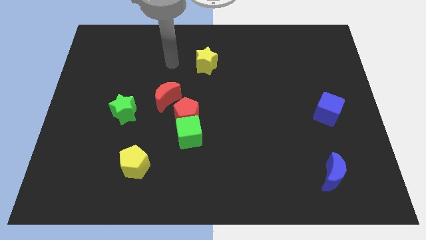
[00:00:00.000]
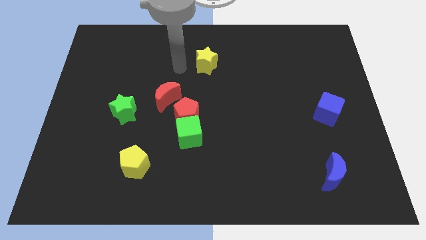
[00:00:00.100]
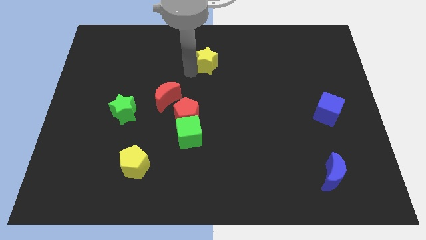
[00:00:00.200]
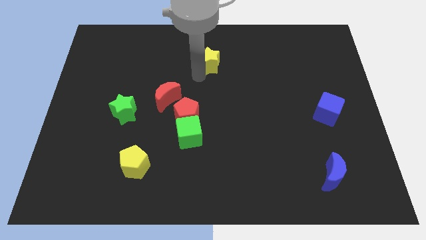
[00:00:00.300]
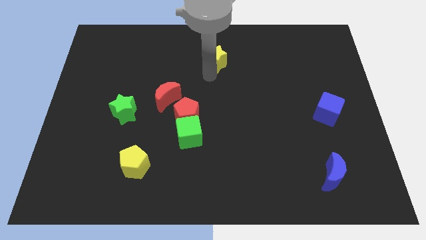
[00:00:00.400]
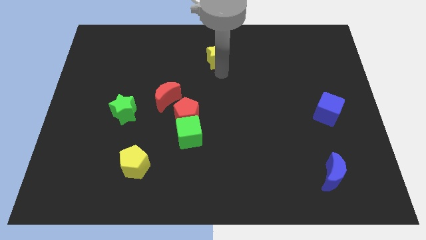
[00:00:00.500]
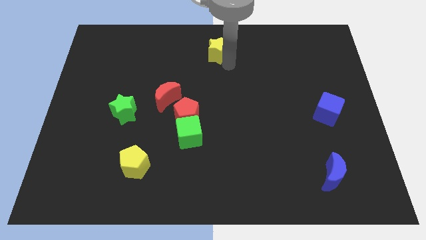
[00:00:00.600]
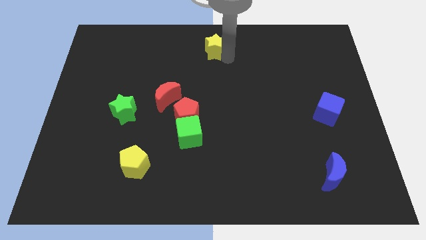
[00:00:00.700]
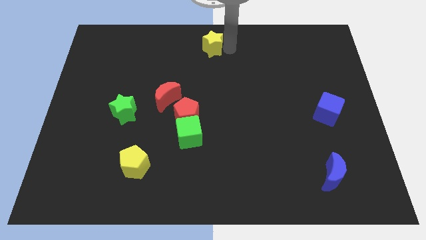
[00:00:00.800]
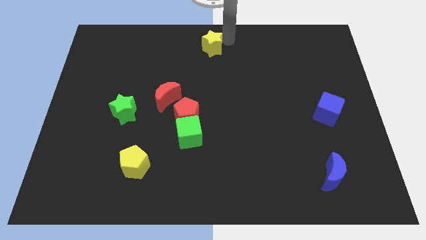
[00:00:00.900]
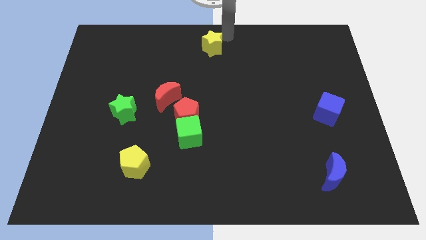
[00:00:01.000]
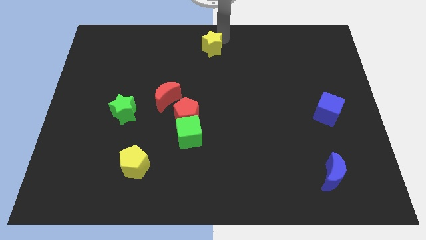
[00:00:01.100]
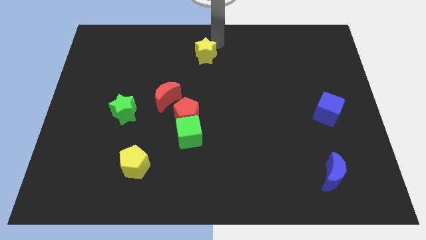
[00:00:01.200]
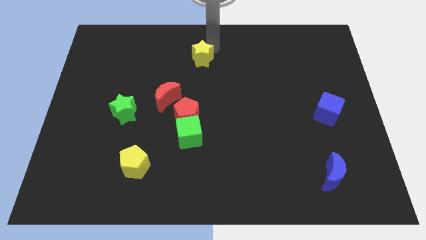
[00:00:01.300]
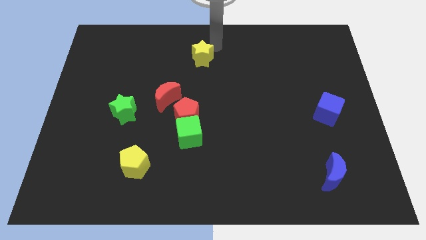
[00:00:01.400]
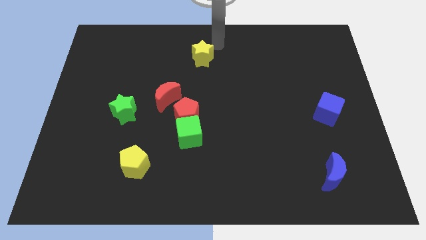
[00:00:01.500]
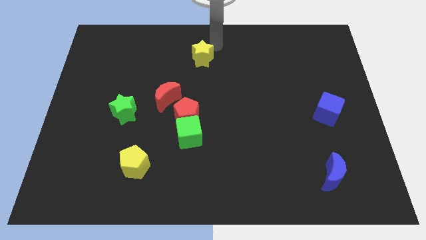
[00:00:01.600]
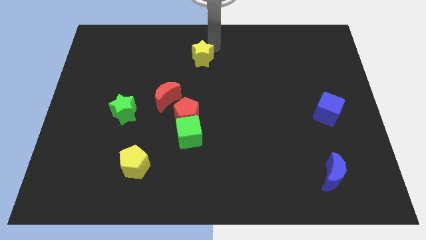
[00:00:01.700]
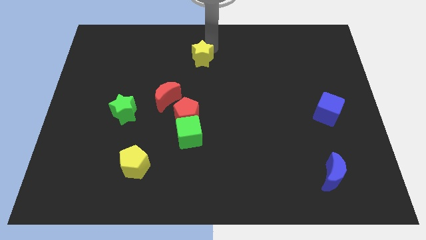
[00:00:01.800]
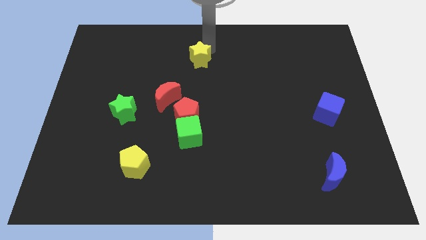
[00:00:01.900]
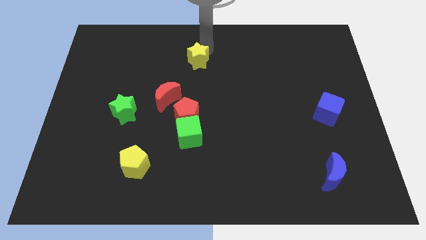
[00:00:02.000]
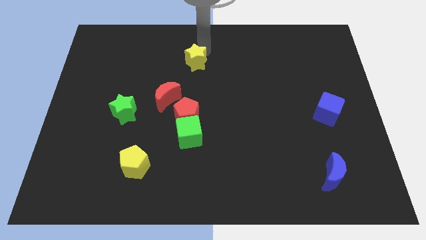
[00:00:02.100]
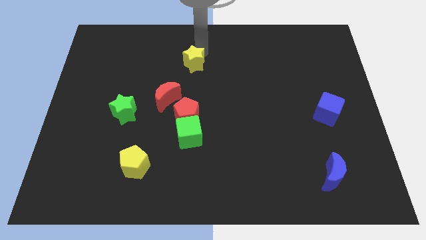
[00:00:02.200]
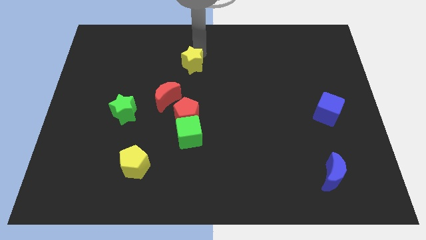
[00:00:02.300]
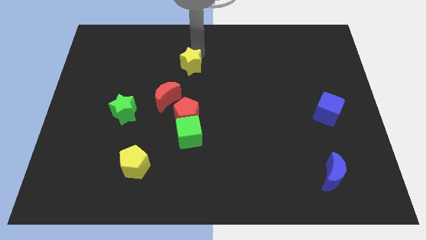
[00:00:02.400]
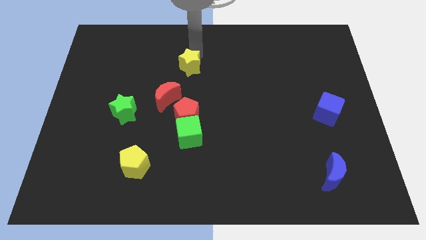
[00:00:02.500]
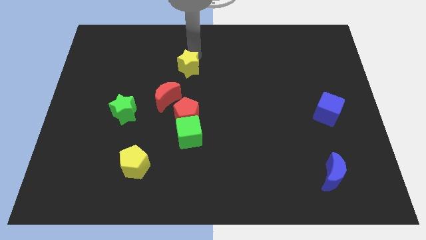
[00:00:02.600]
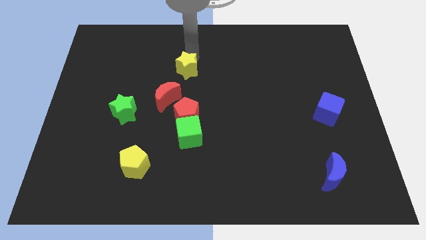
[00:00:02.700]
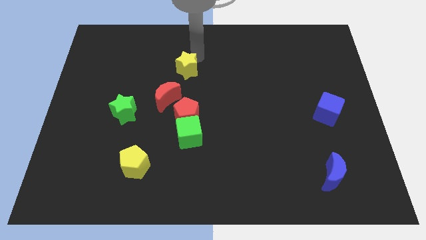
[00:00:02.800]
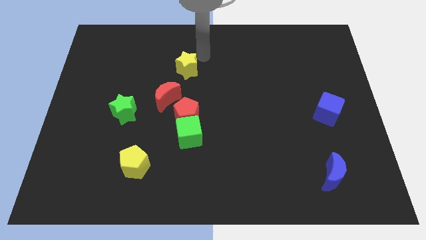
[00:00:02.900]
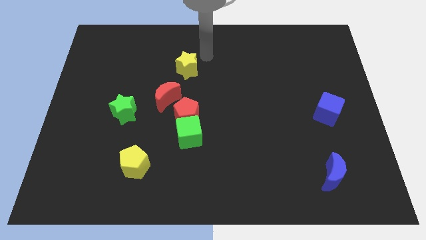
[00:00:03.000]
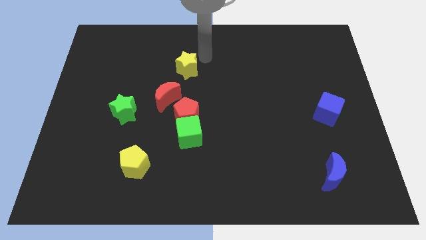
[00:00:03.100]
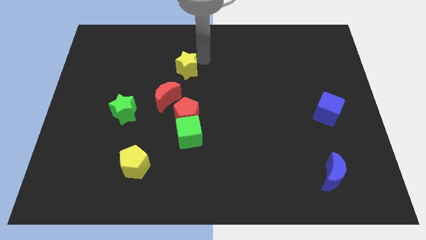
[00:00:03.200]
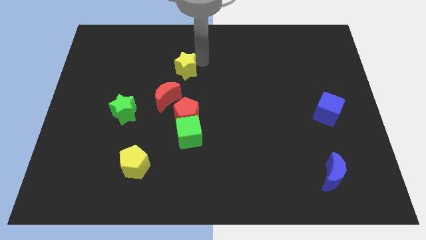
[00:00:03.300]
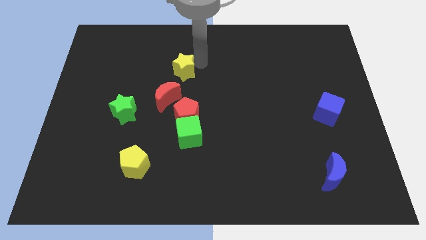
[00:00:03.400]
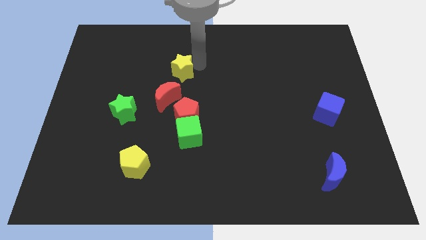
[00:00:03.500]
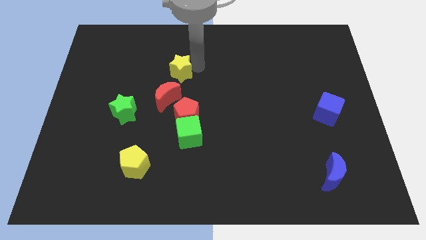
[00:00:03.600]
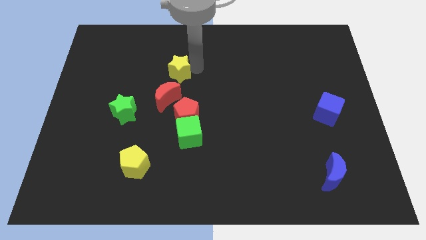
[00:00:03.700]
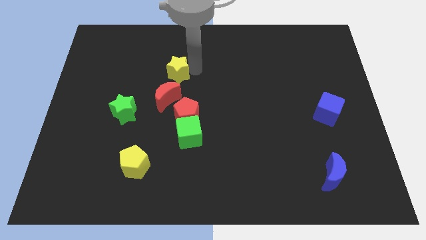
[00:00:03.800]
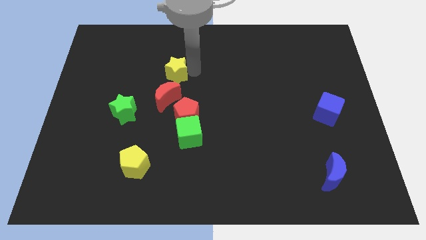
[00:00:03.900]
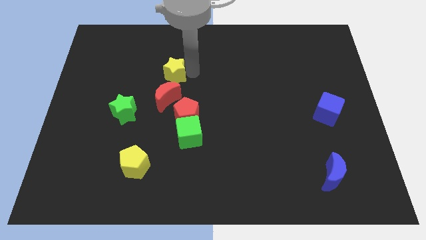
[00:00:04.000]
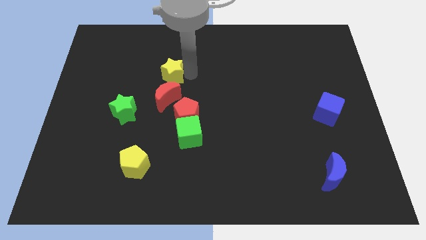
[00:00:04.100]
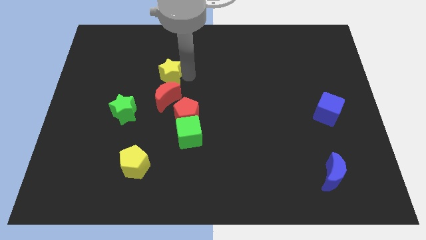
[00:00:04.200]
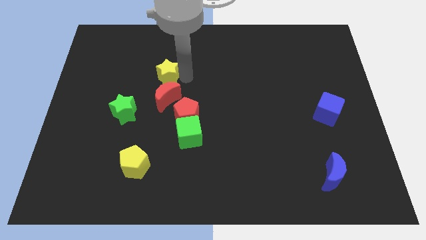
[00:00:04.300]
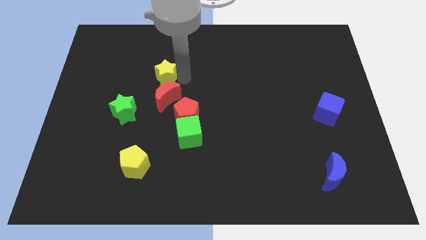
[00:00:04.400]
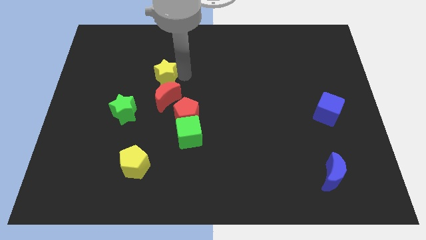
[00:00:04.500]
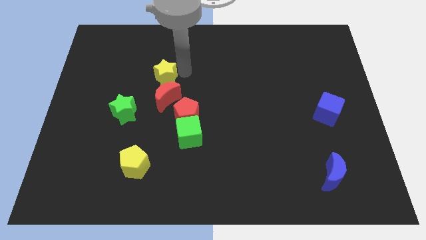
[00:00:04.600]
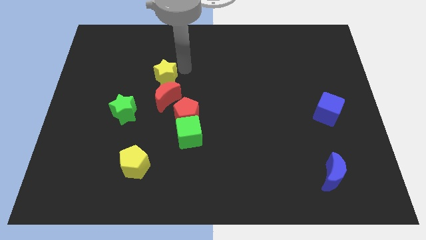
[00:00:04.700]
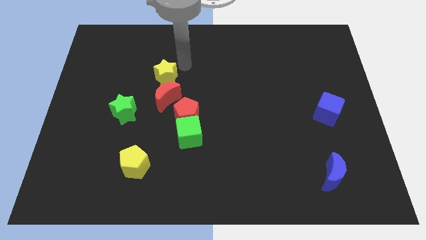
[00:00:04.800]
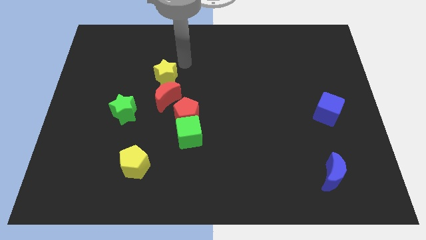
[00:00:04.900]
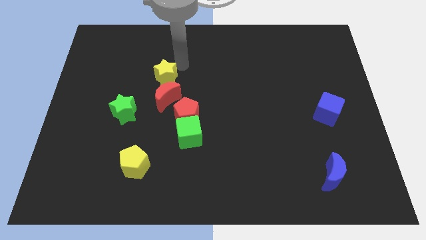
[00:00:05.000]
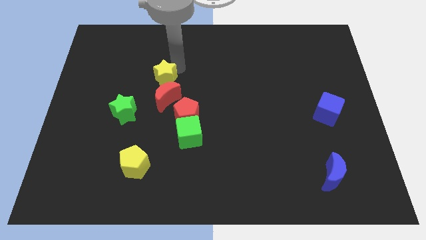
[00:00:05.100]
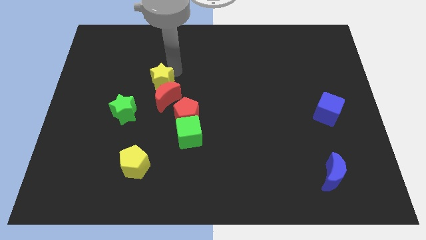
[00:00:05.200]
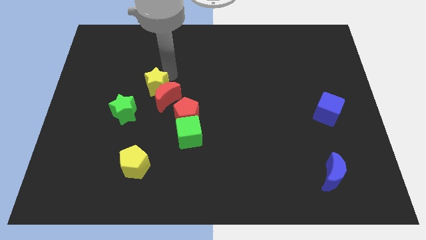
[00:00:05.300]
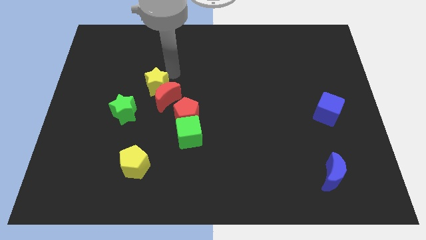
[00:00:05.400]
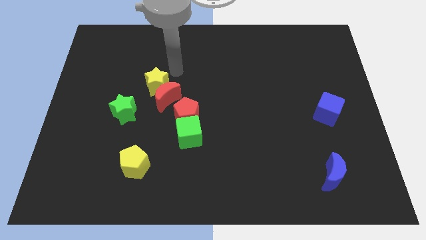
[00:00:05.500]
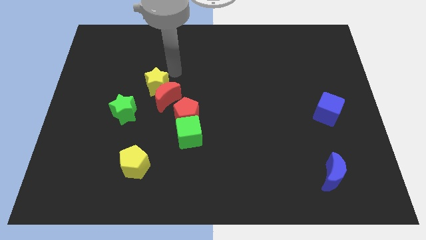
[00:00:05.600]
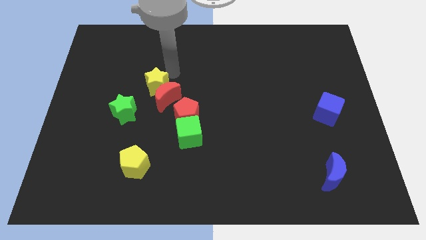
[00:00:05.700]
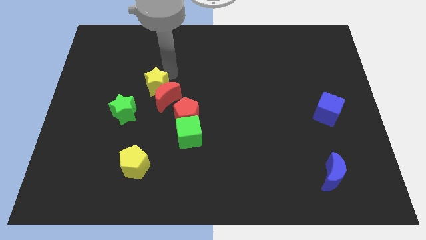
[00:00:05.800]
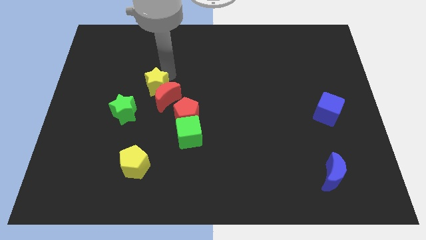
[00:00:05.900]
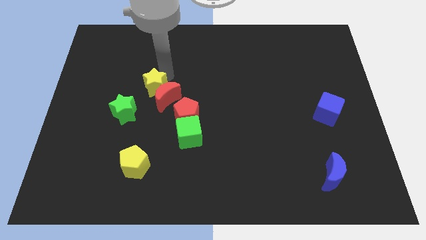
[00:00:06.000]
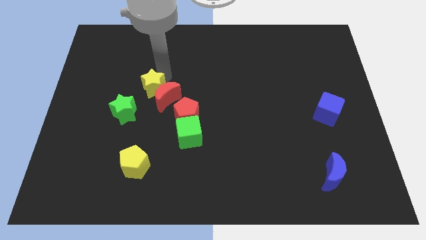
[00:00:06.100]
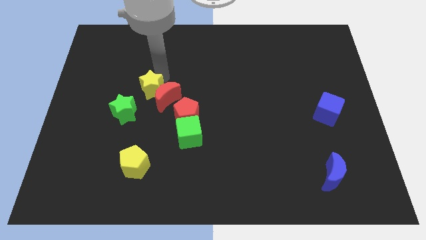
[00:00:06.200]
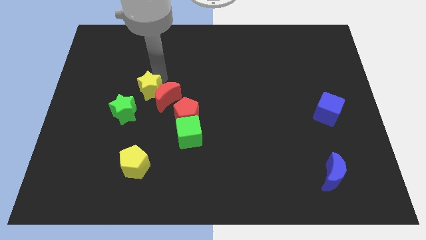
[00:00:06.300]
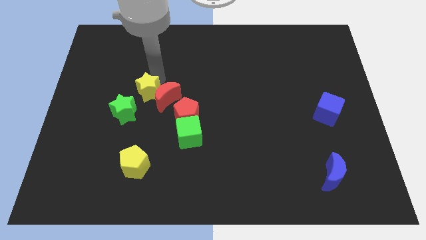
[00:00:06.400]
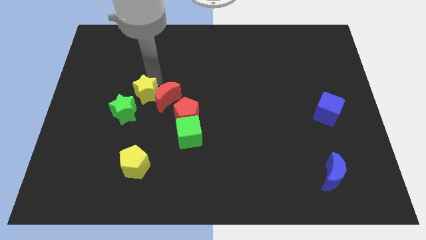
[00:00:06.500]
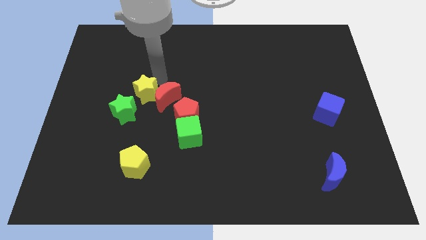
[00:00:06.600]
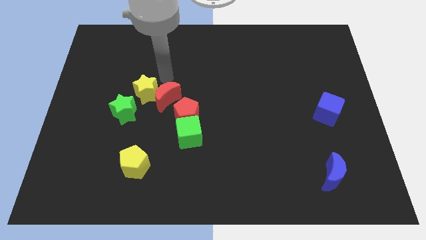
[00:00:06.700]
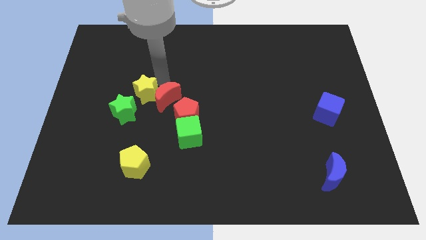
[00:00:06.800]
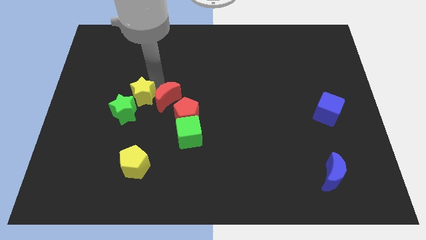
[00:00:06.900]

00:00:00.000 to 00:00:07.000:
push the yellow star towards the green star
